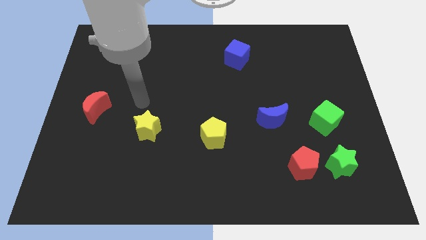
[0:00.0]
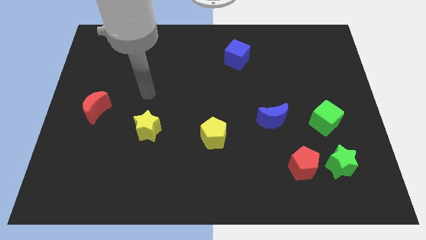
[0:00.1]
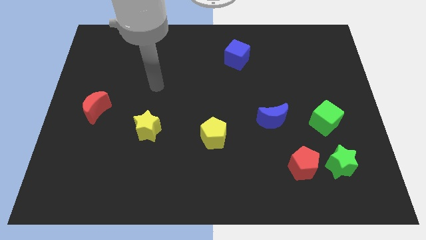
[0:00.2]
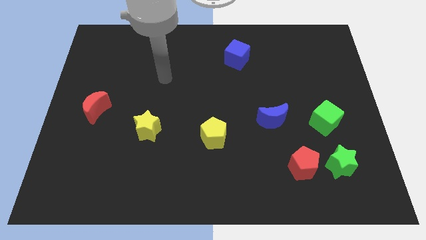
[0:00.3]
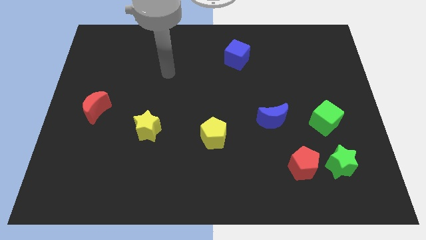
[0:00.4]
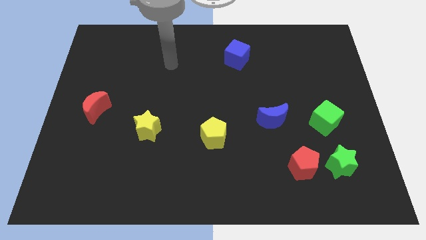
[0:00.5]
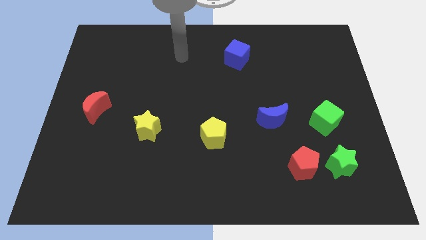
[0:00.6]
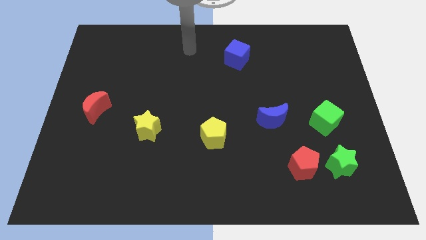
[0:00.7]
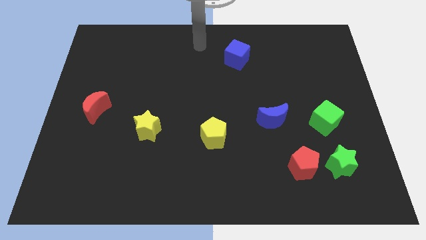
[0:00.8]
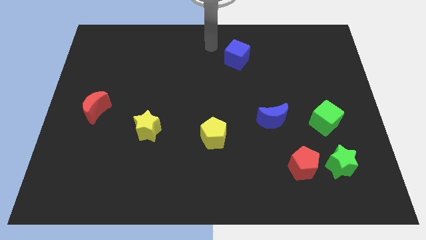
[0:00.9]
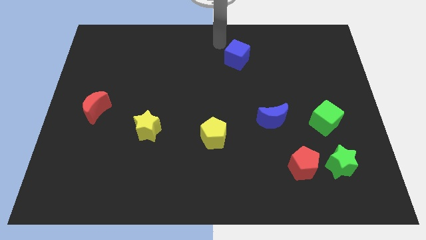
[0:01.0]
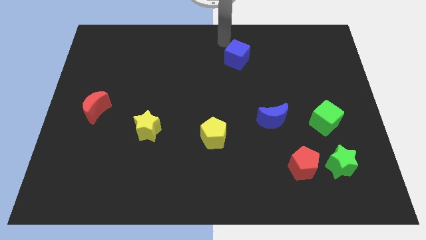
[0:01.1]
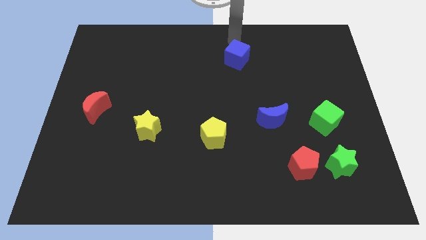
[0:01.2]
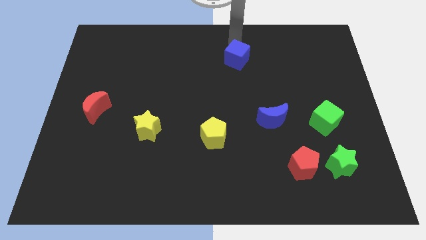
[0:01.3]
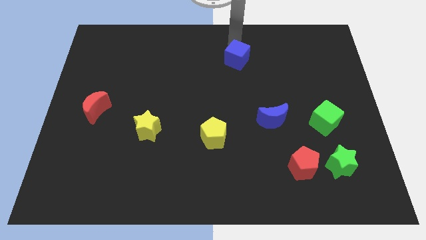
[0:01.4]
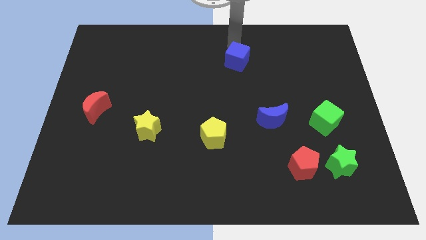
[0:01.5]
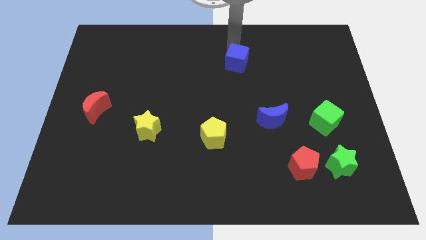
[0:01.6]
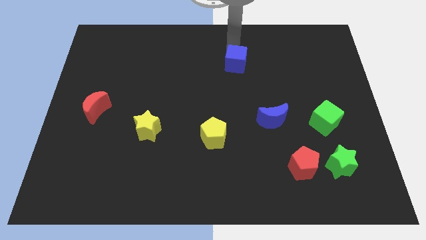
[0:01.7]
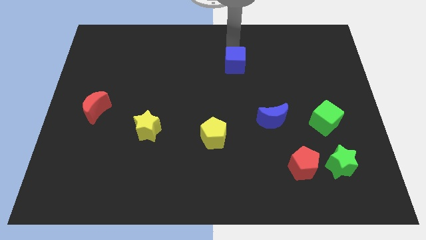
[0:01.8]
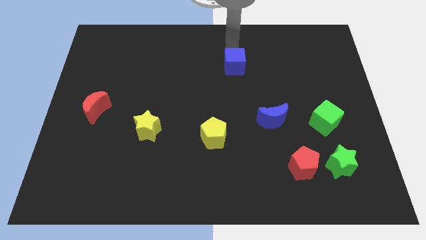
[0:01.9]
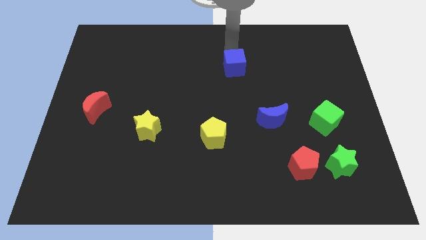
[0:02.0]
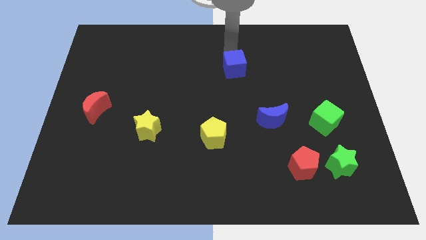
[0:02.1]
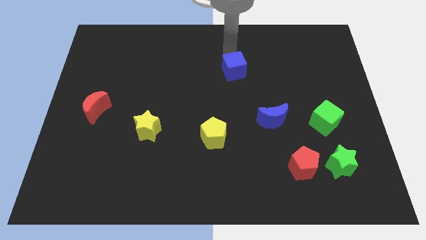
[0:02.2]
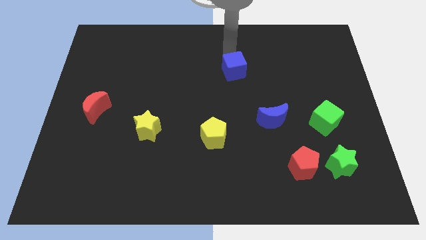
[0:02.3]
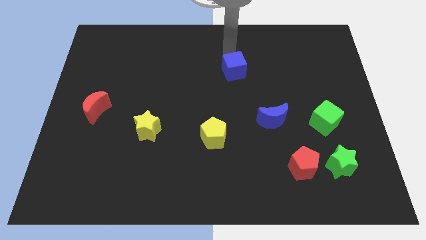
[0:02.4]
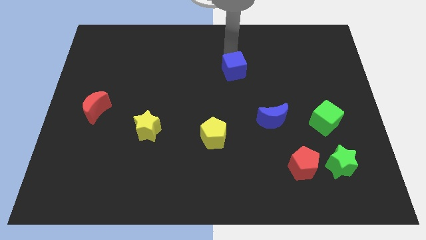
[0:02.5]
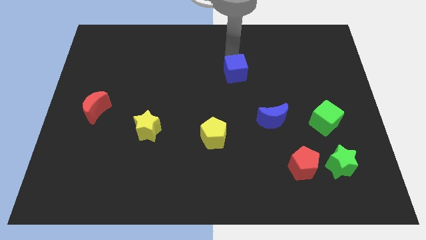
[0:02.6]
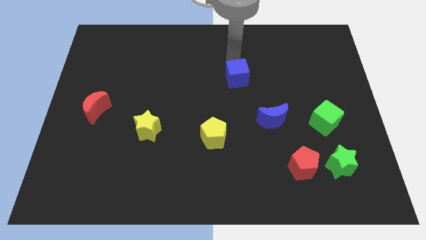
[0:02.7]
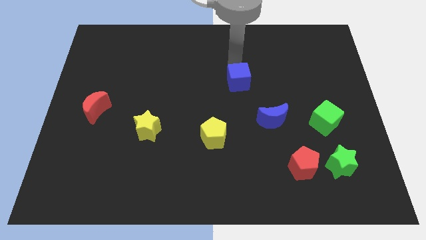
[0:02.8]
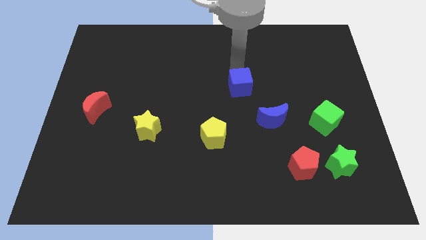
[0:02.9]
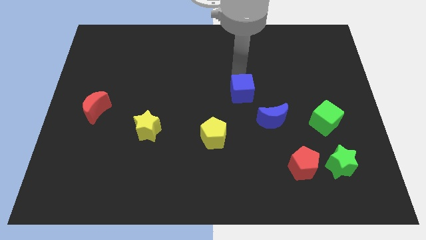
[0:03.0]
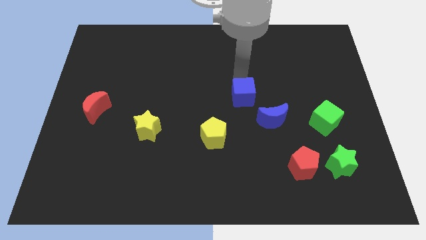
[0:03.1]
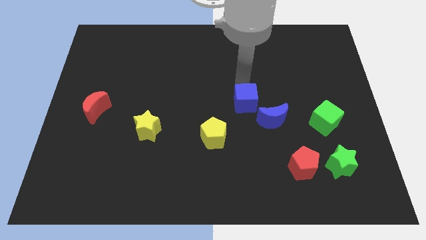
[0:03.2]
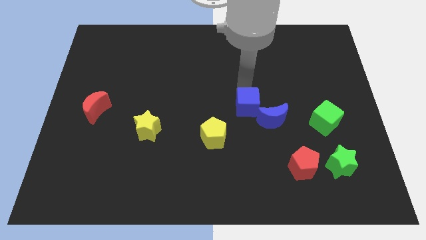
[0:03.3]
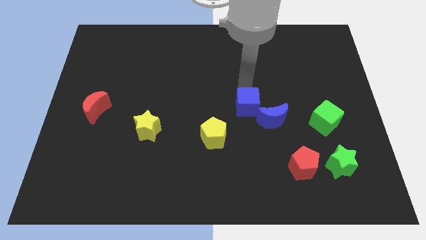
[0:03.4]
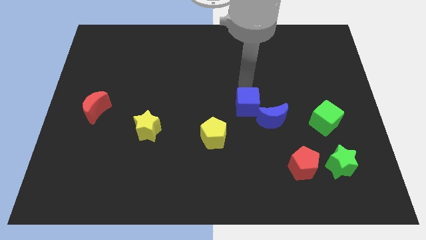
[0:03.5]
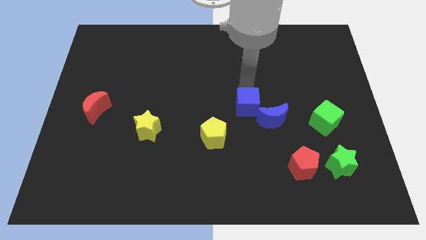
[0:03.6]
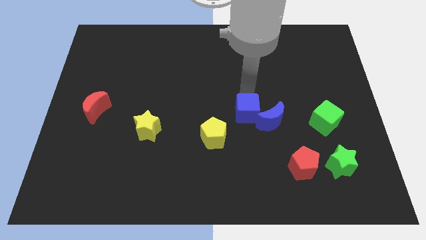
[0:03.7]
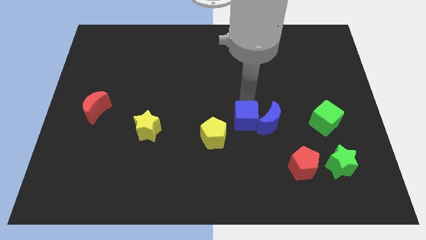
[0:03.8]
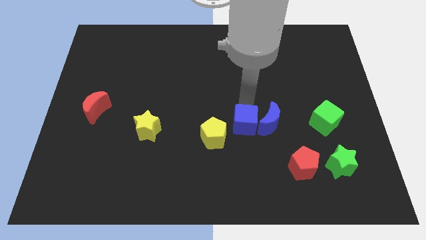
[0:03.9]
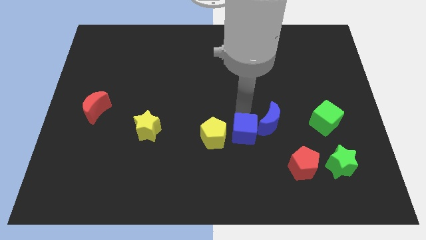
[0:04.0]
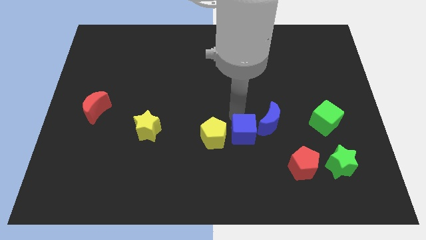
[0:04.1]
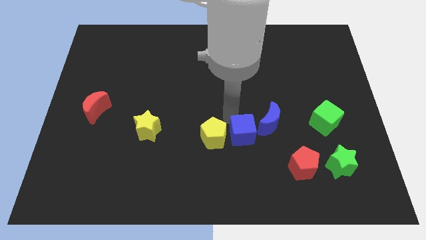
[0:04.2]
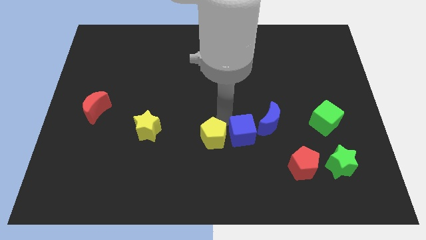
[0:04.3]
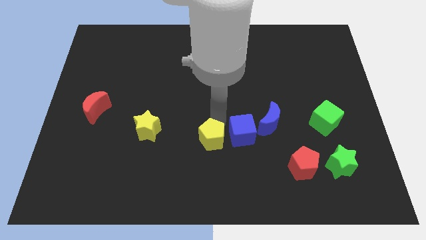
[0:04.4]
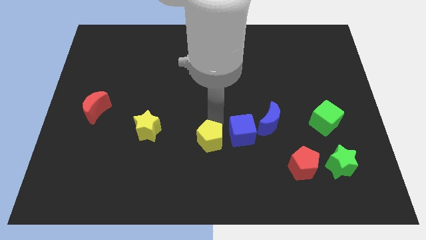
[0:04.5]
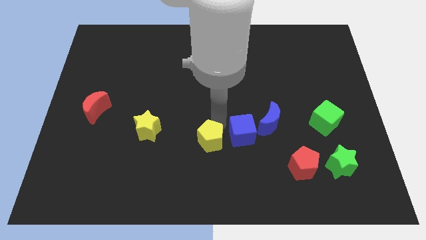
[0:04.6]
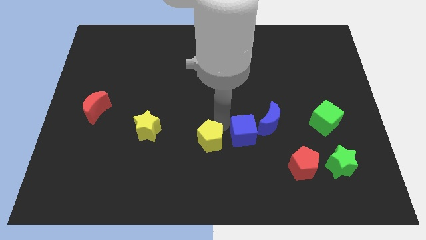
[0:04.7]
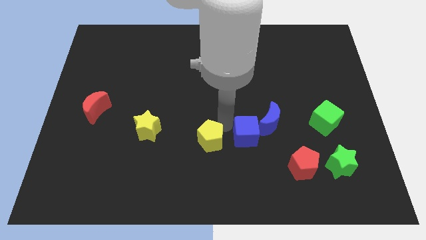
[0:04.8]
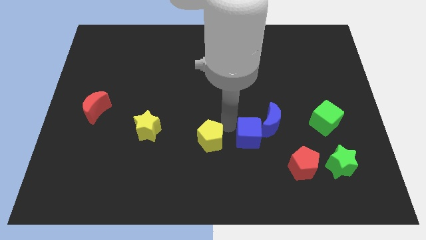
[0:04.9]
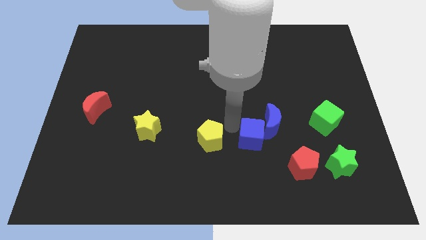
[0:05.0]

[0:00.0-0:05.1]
move the blue cube to the top left side of the red pentagon

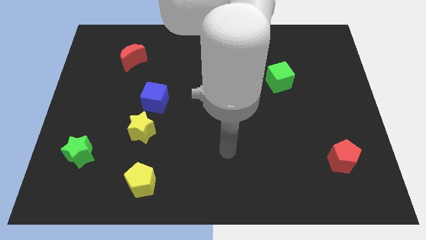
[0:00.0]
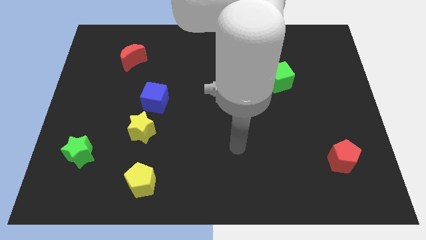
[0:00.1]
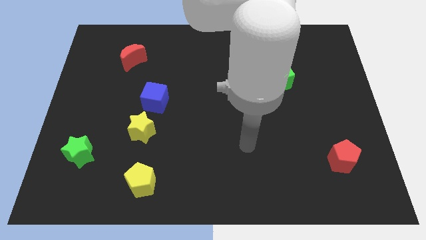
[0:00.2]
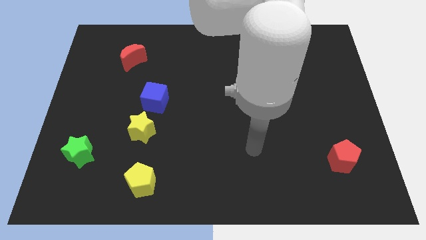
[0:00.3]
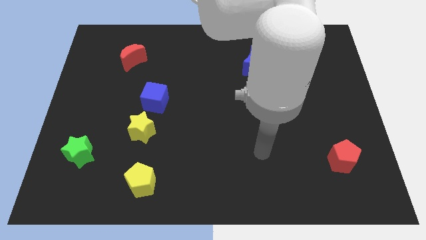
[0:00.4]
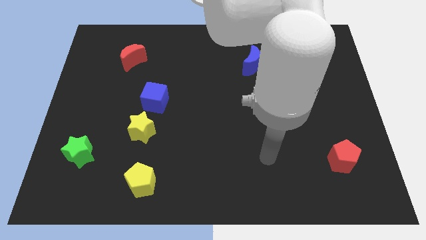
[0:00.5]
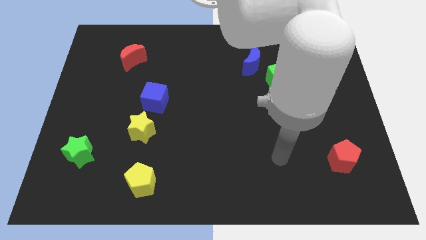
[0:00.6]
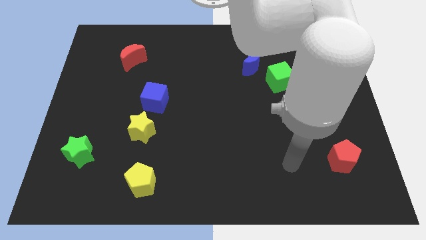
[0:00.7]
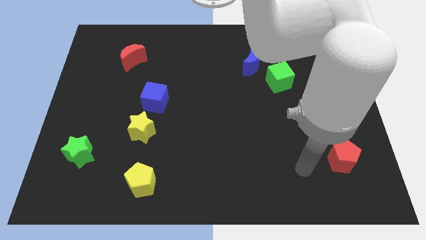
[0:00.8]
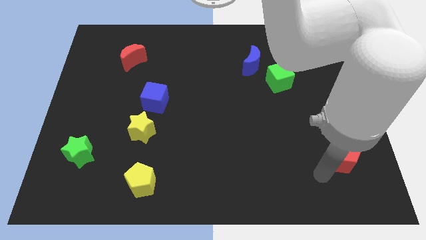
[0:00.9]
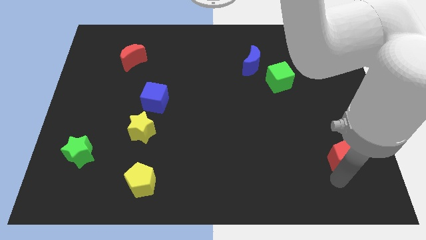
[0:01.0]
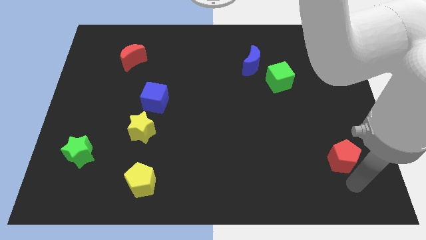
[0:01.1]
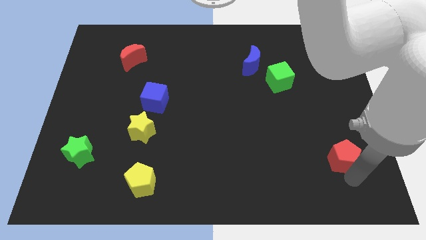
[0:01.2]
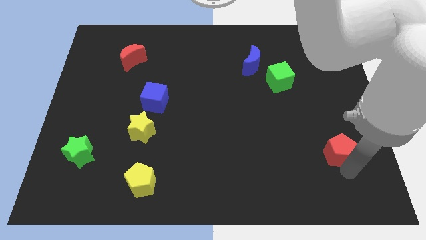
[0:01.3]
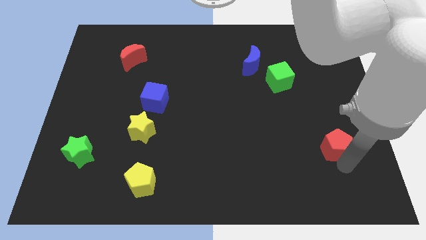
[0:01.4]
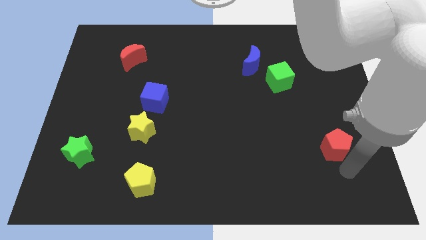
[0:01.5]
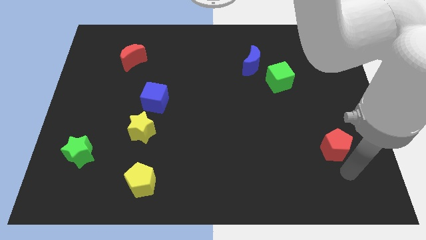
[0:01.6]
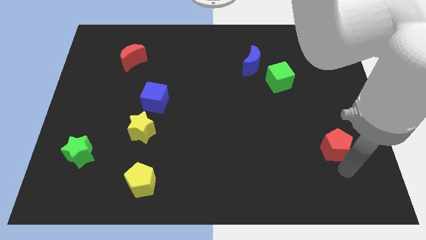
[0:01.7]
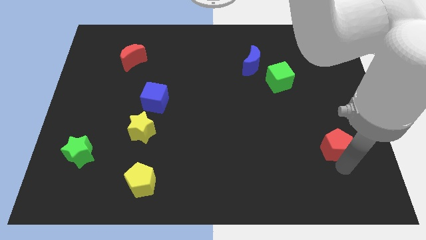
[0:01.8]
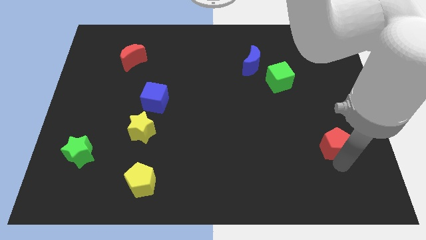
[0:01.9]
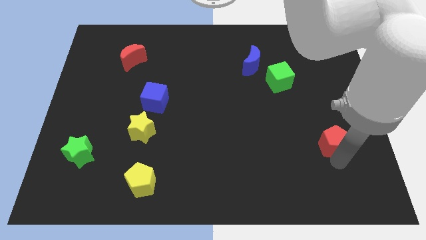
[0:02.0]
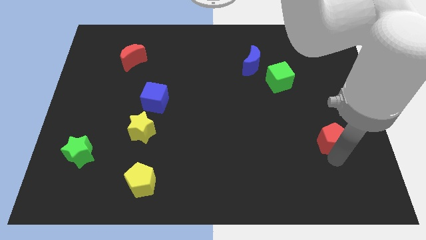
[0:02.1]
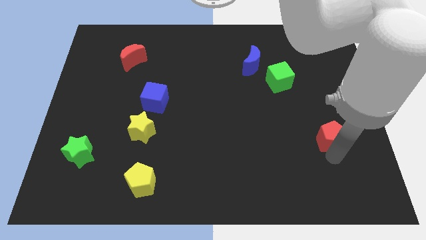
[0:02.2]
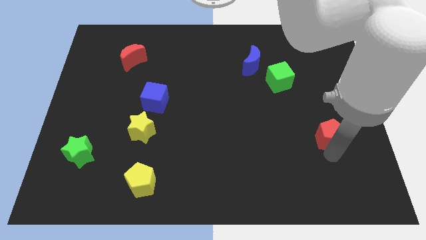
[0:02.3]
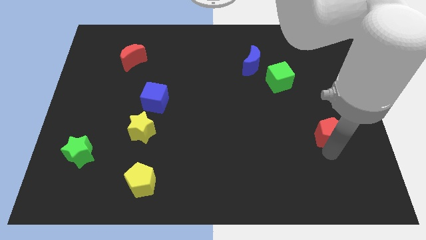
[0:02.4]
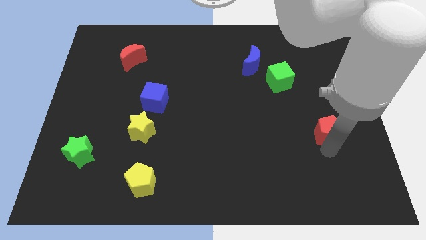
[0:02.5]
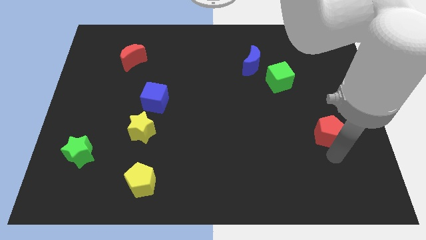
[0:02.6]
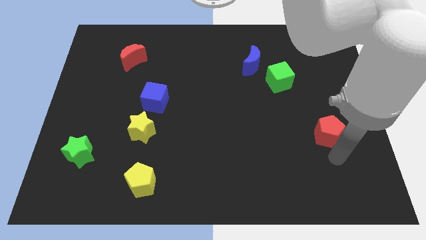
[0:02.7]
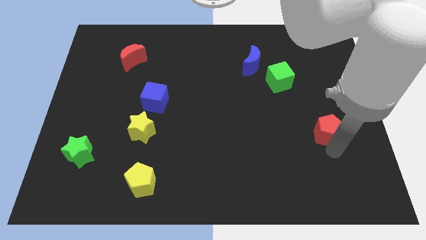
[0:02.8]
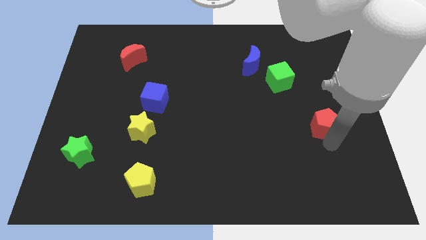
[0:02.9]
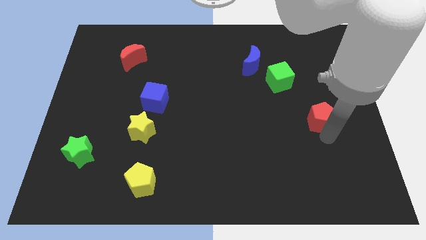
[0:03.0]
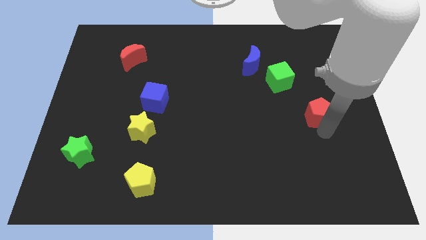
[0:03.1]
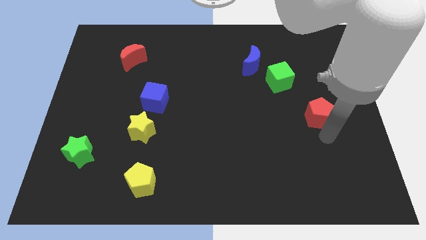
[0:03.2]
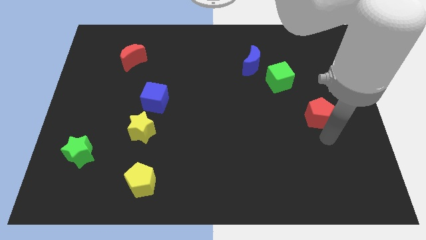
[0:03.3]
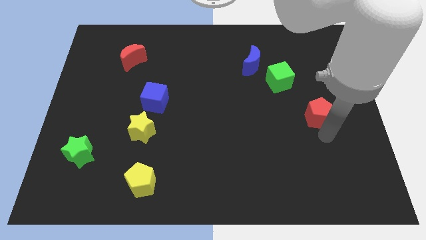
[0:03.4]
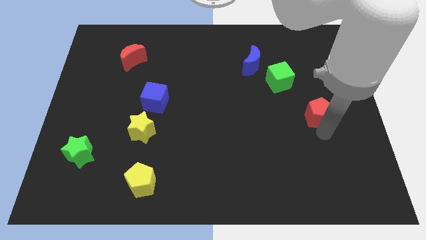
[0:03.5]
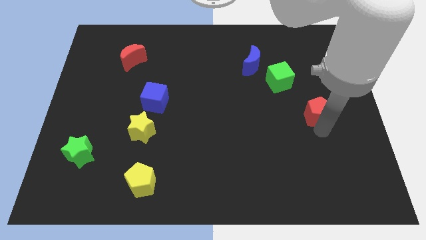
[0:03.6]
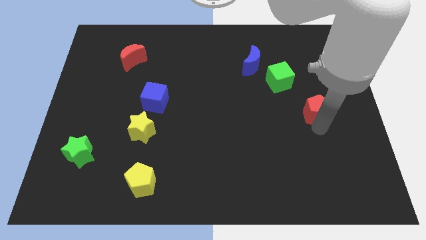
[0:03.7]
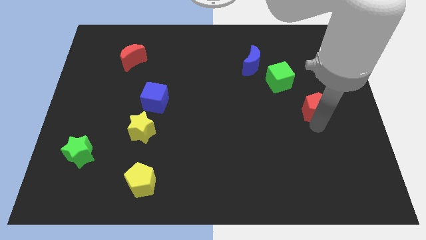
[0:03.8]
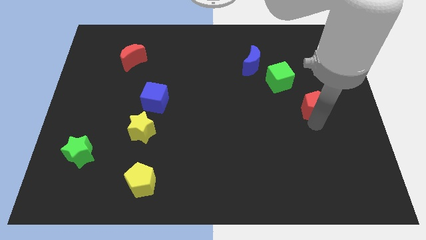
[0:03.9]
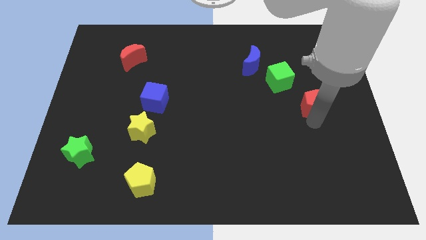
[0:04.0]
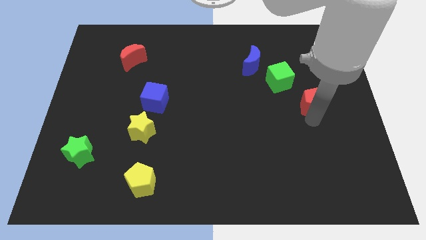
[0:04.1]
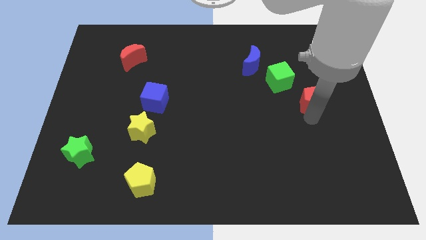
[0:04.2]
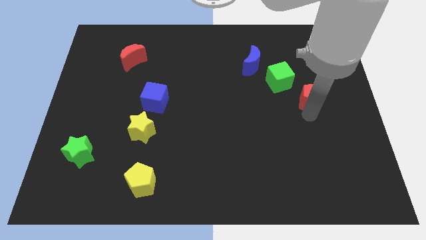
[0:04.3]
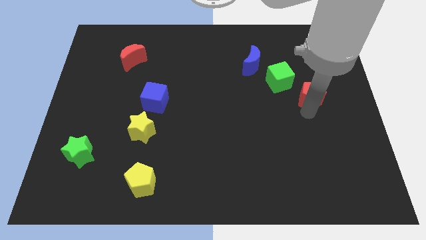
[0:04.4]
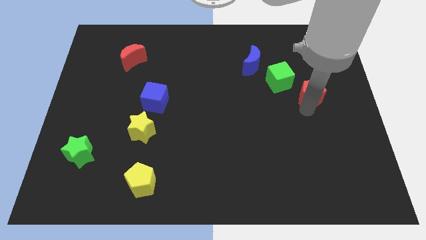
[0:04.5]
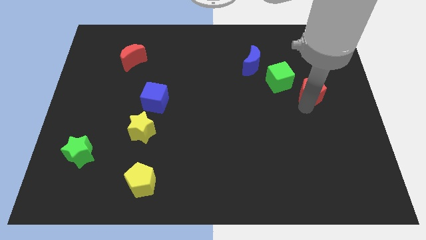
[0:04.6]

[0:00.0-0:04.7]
push the red pentagon right of the green cube
